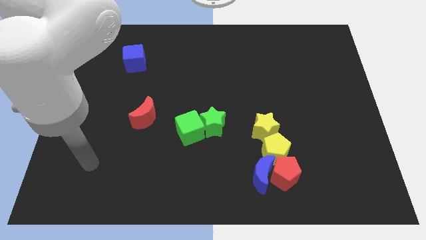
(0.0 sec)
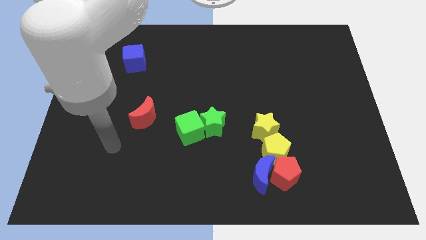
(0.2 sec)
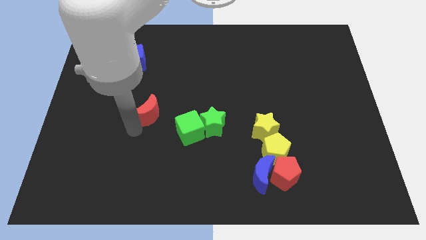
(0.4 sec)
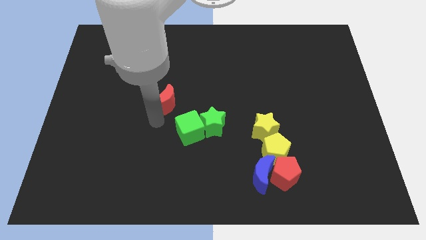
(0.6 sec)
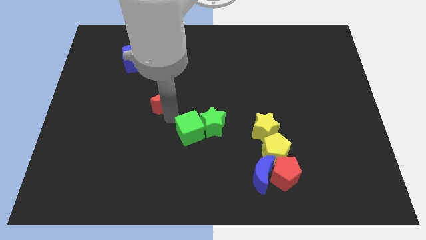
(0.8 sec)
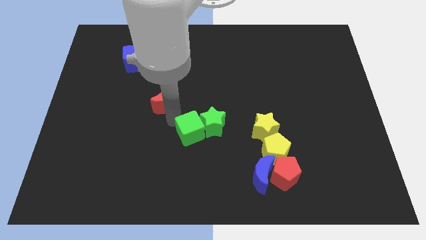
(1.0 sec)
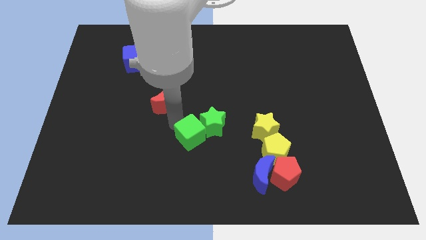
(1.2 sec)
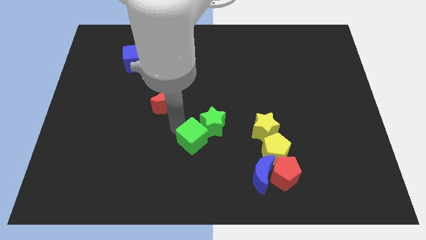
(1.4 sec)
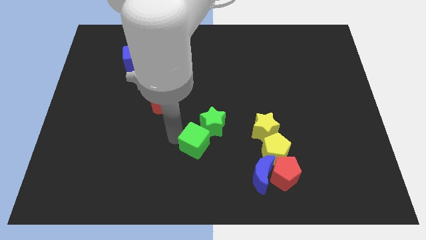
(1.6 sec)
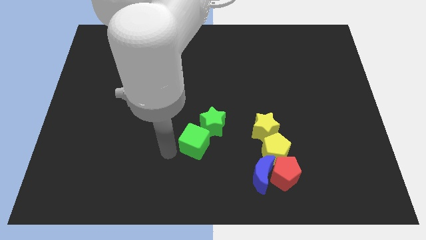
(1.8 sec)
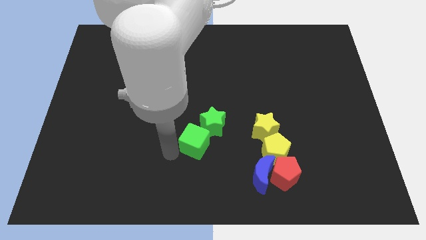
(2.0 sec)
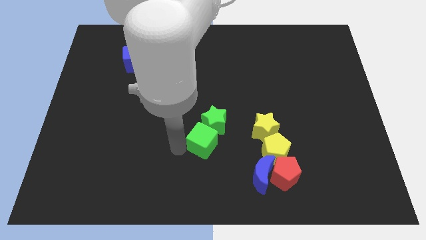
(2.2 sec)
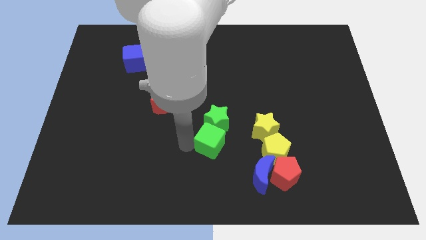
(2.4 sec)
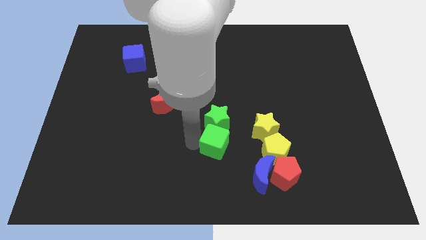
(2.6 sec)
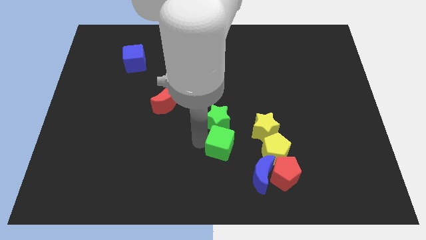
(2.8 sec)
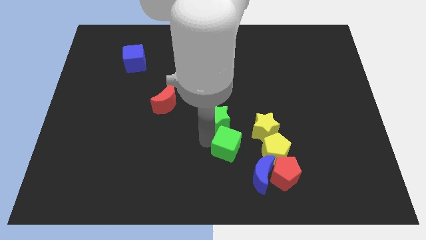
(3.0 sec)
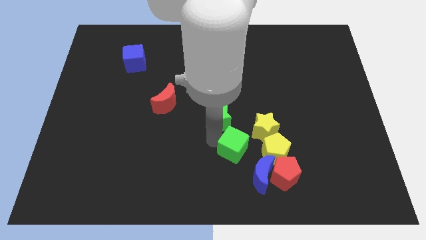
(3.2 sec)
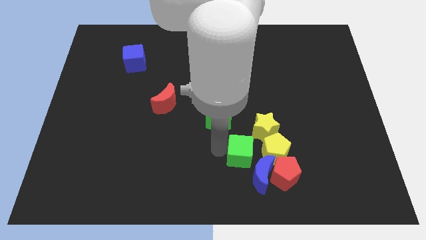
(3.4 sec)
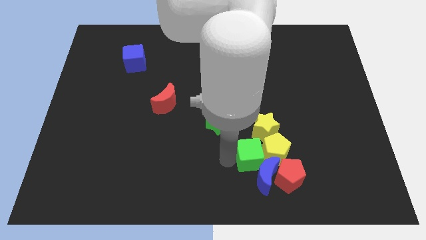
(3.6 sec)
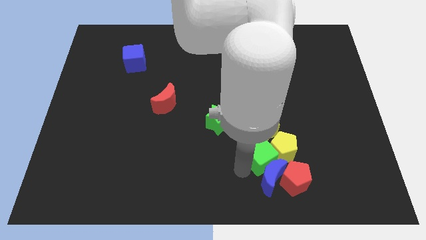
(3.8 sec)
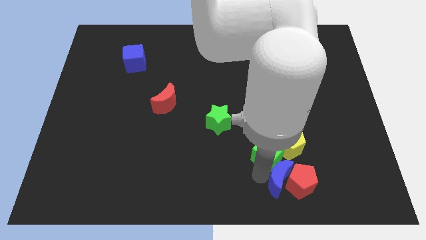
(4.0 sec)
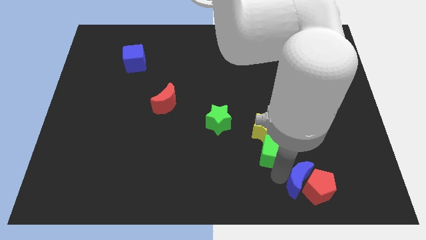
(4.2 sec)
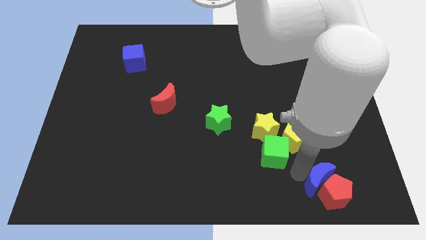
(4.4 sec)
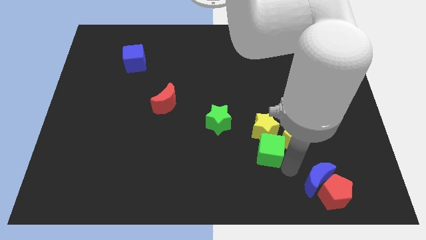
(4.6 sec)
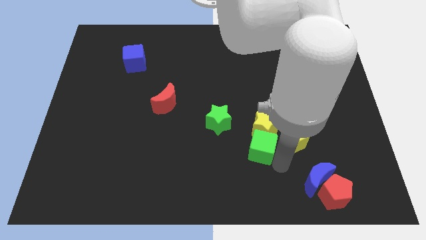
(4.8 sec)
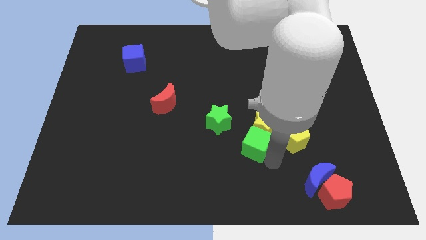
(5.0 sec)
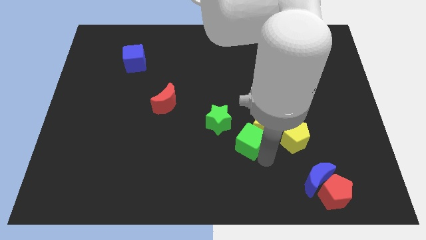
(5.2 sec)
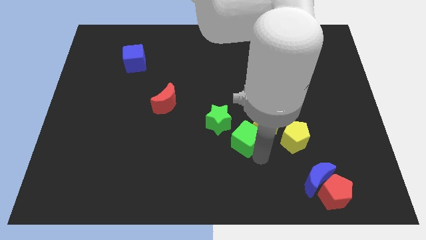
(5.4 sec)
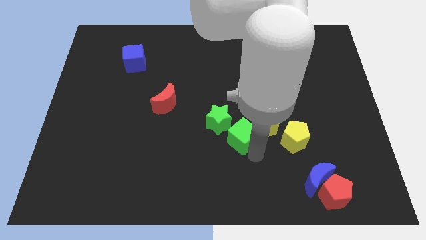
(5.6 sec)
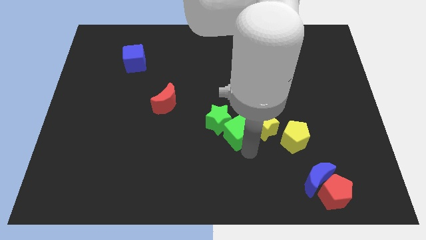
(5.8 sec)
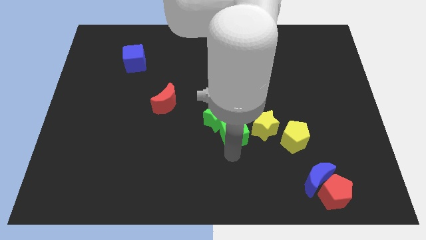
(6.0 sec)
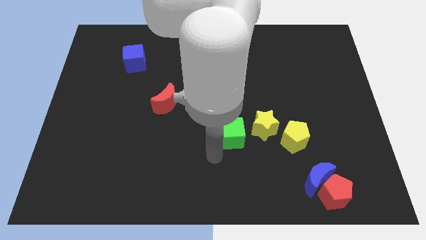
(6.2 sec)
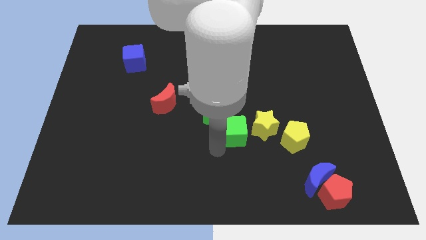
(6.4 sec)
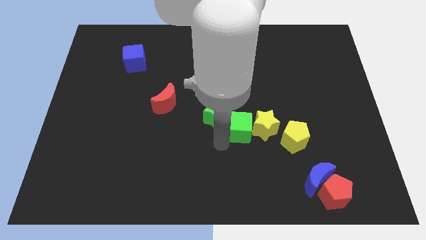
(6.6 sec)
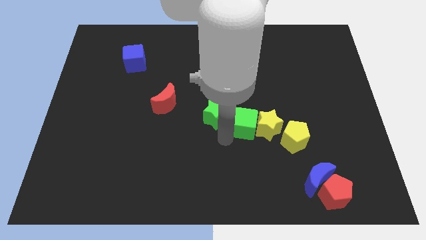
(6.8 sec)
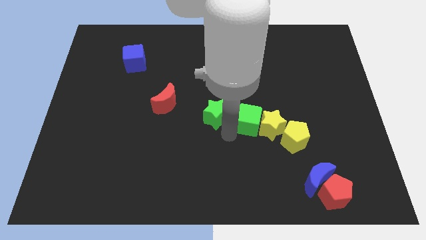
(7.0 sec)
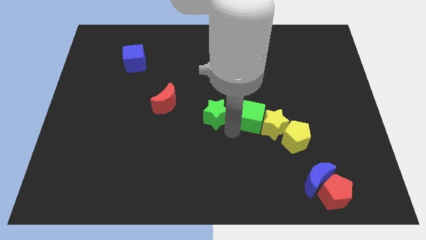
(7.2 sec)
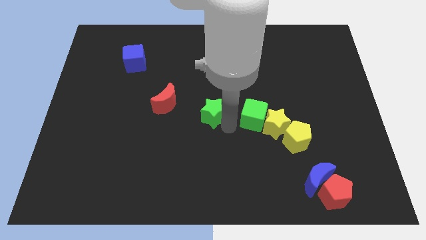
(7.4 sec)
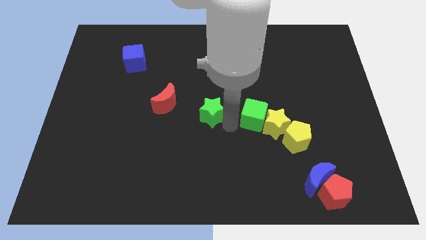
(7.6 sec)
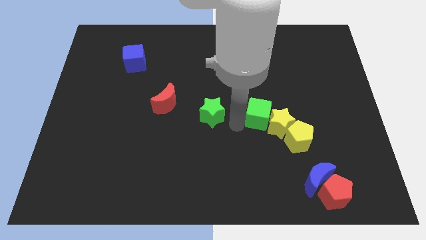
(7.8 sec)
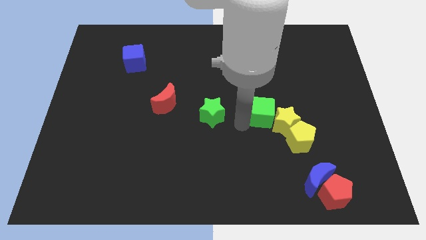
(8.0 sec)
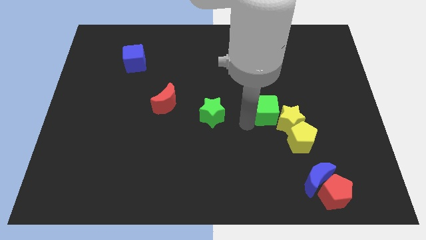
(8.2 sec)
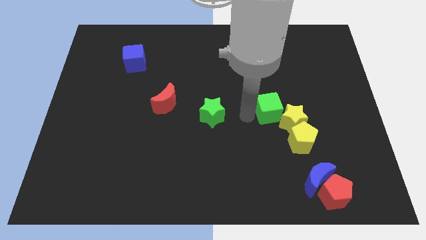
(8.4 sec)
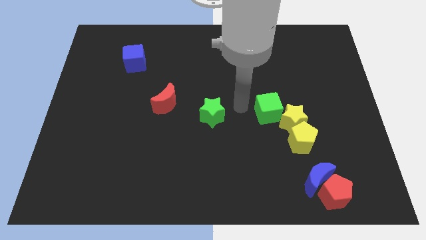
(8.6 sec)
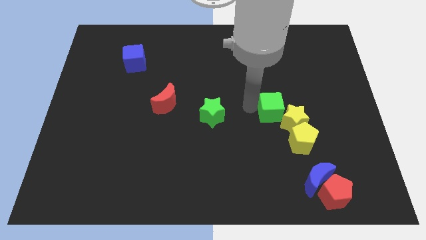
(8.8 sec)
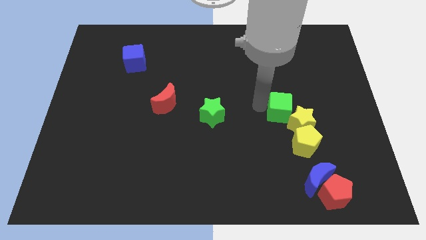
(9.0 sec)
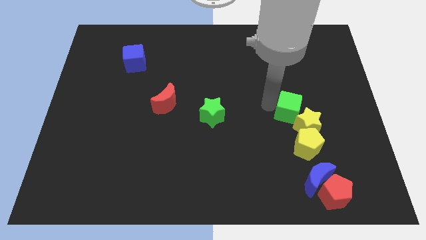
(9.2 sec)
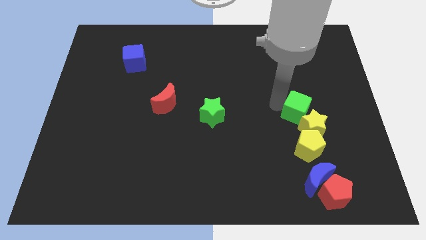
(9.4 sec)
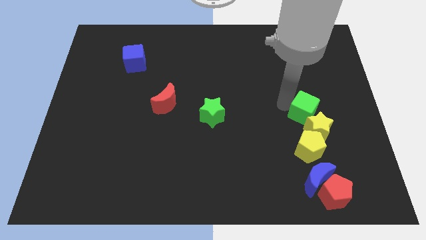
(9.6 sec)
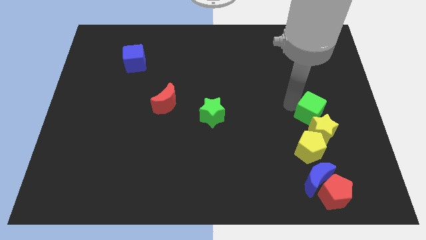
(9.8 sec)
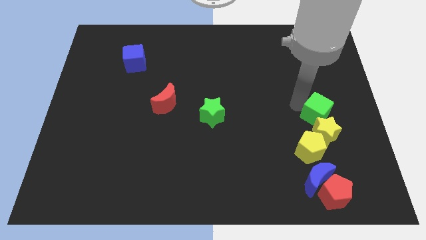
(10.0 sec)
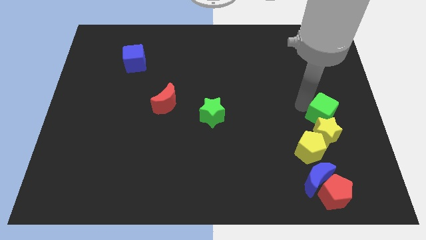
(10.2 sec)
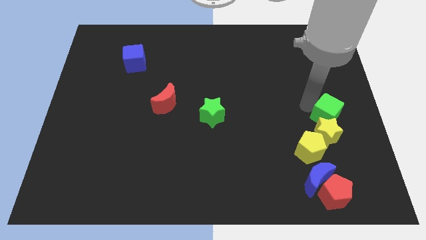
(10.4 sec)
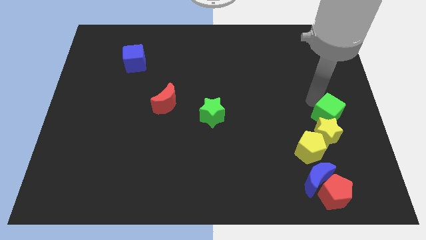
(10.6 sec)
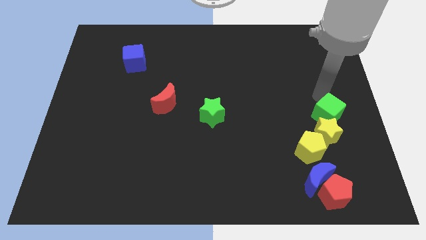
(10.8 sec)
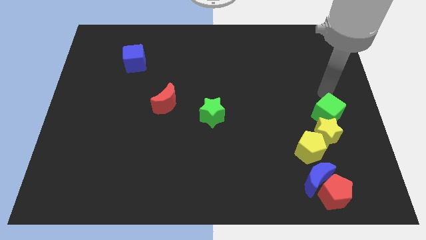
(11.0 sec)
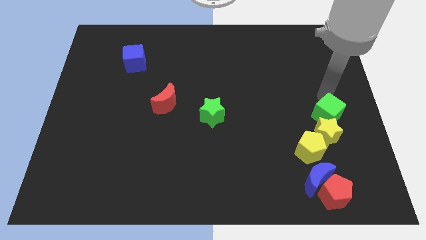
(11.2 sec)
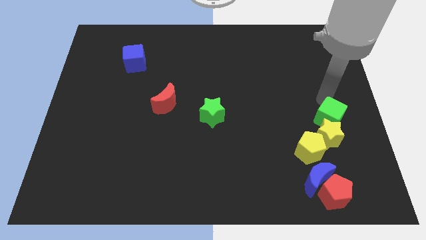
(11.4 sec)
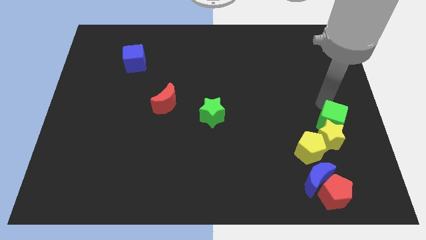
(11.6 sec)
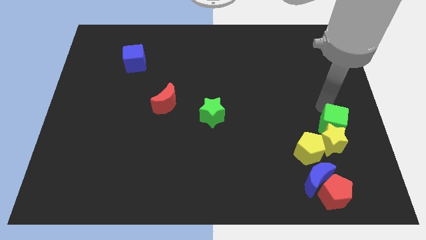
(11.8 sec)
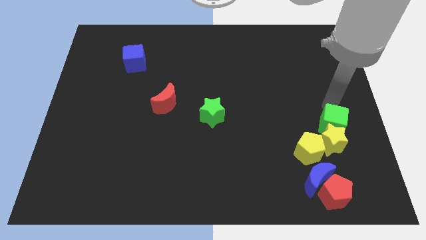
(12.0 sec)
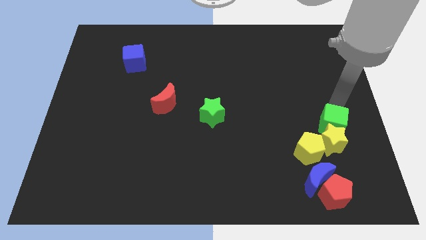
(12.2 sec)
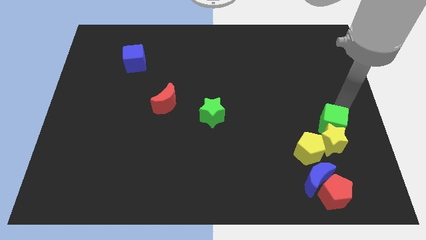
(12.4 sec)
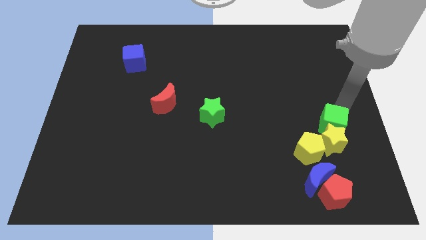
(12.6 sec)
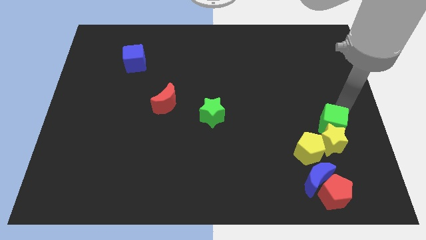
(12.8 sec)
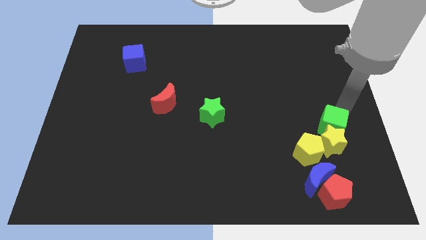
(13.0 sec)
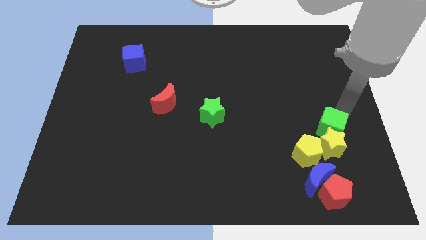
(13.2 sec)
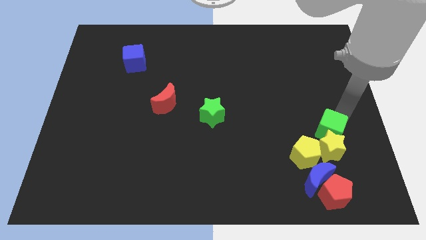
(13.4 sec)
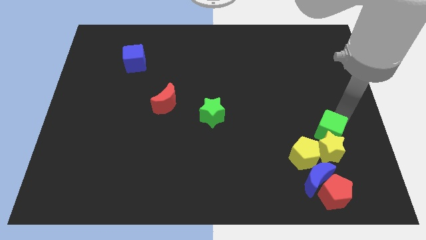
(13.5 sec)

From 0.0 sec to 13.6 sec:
push the green cube diagonally up and to the right of the yellow pentagon
